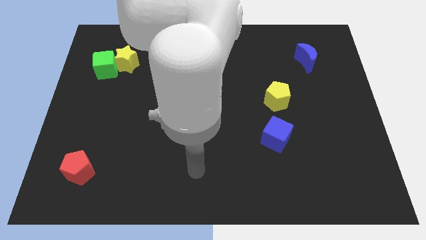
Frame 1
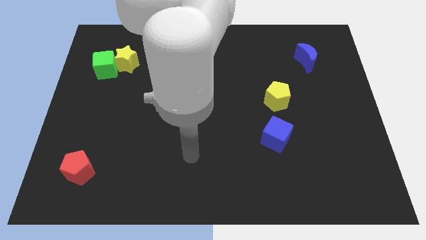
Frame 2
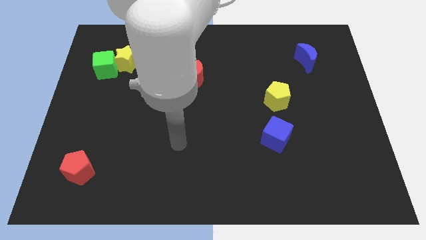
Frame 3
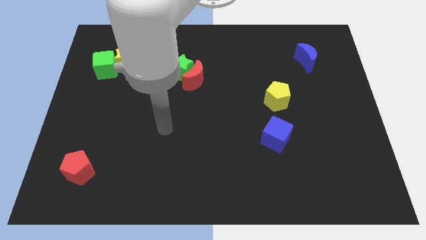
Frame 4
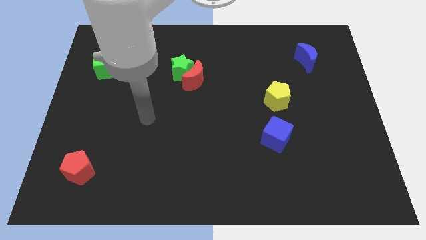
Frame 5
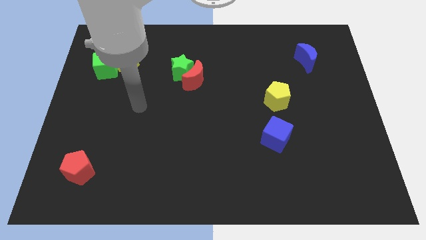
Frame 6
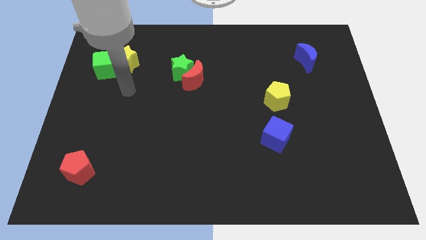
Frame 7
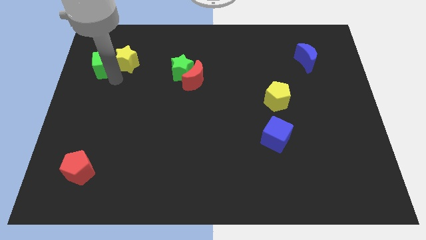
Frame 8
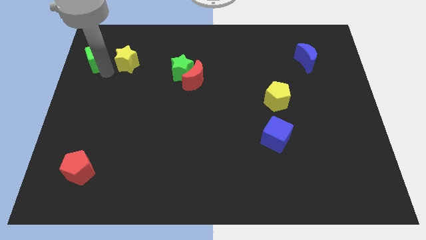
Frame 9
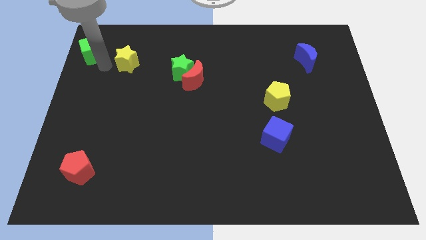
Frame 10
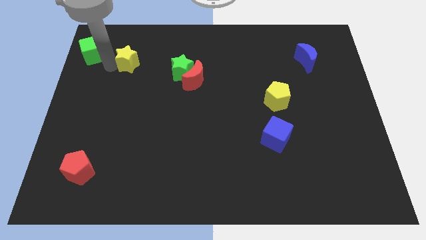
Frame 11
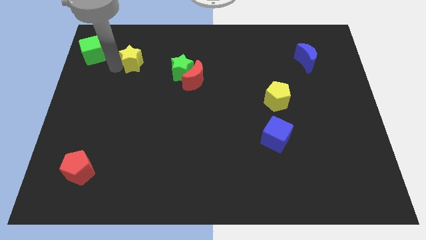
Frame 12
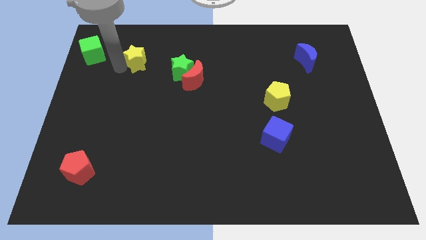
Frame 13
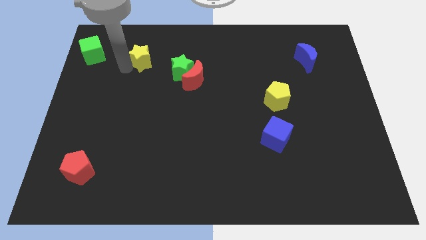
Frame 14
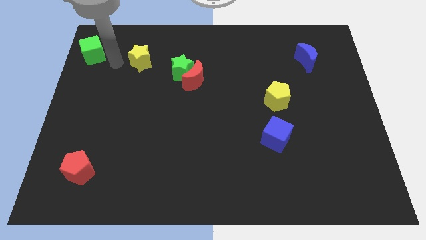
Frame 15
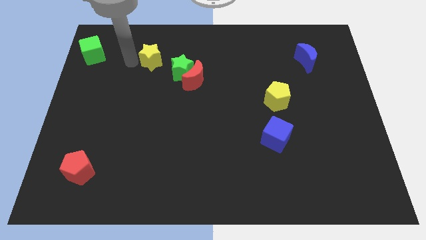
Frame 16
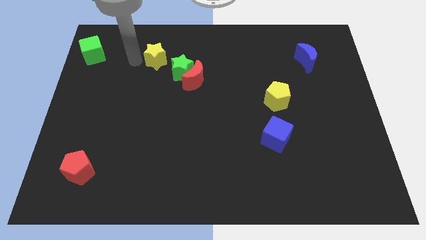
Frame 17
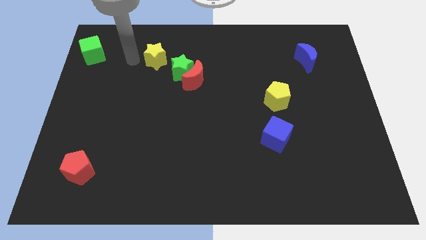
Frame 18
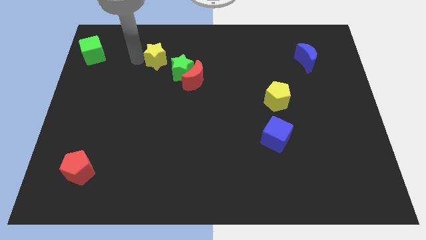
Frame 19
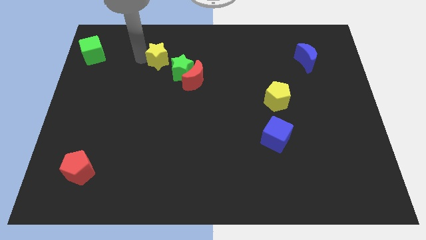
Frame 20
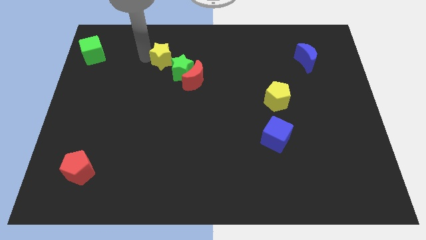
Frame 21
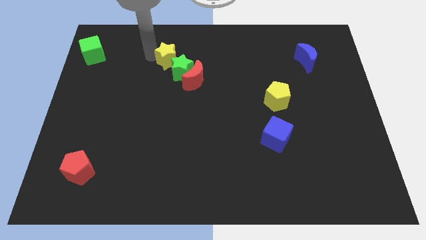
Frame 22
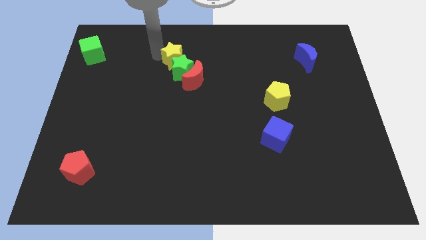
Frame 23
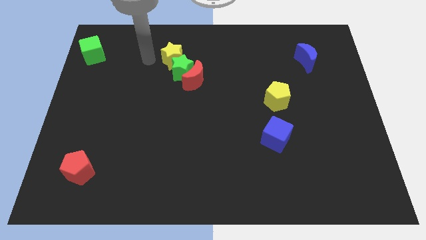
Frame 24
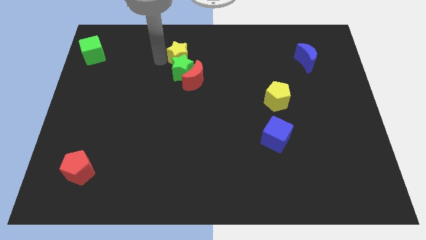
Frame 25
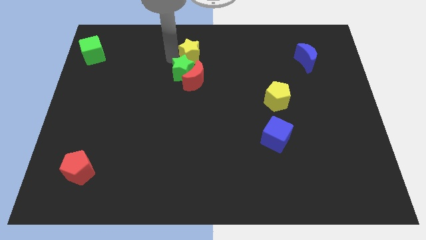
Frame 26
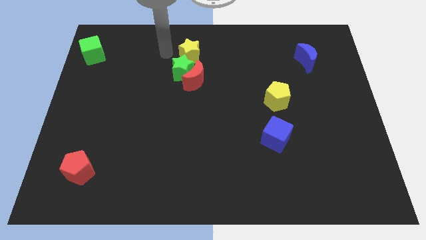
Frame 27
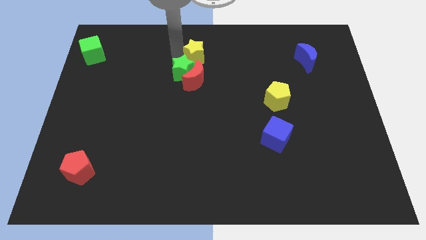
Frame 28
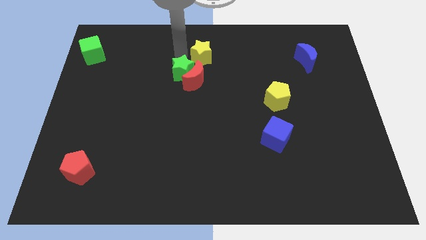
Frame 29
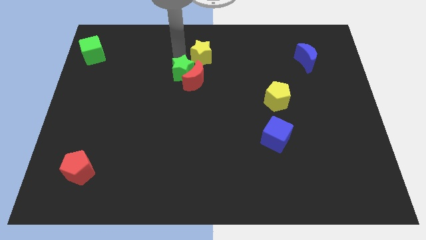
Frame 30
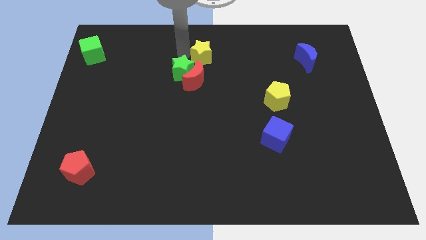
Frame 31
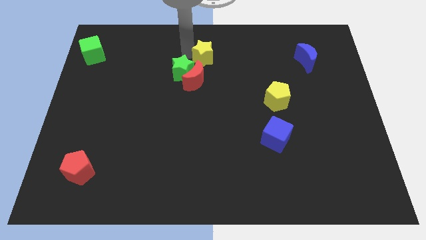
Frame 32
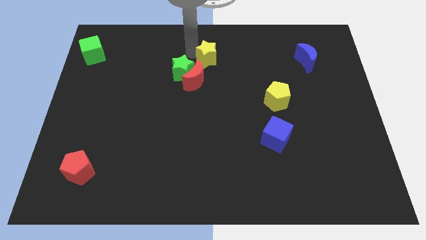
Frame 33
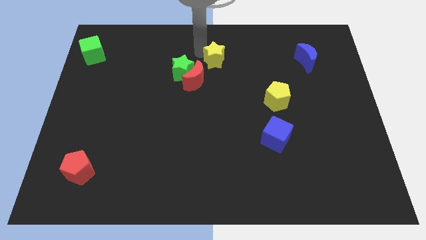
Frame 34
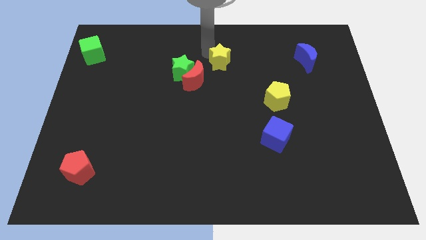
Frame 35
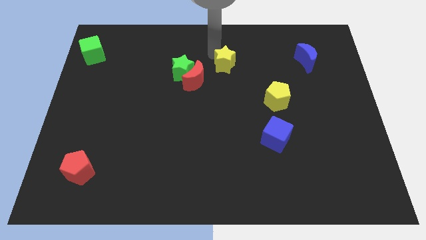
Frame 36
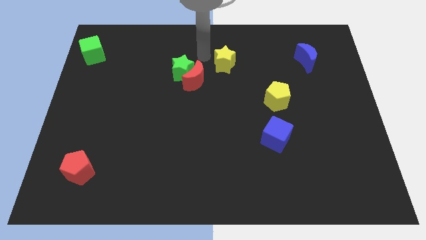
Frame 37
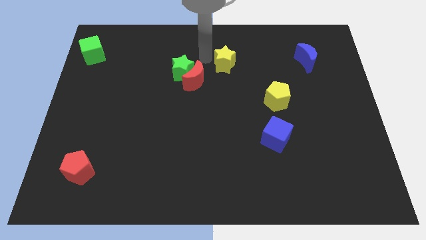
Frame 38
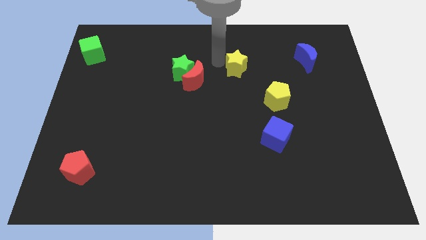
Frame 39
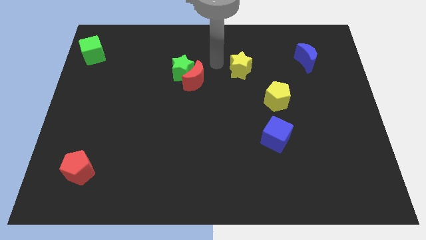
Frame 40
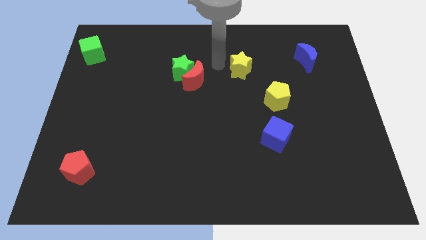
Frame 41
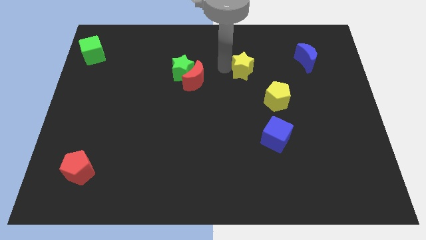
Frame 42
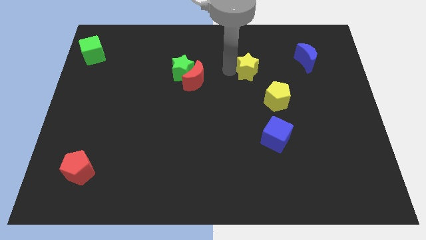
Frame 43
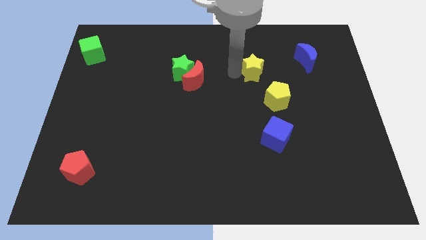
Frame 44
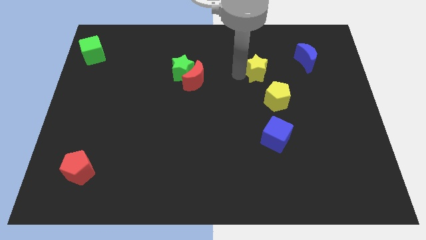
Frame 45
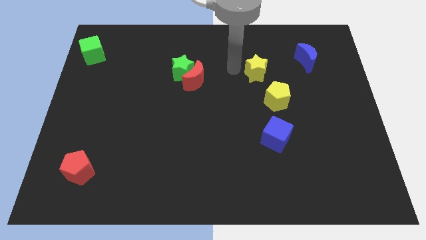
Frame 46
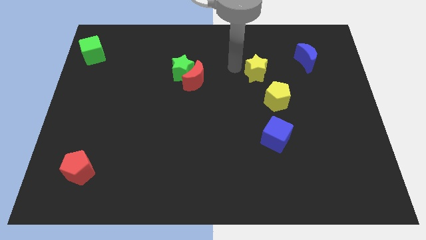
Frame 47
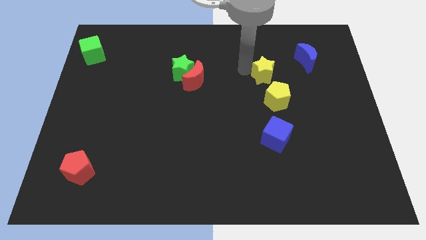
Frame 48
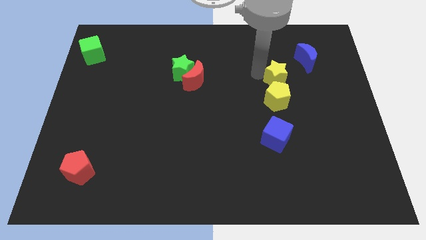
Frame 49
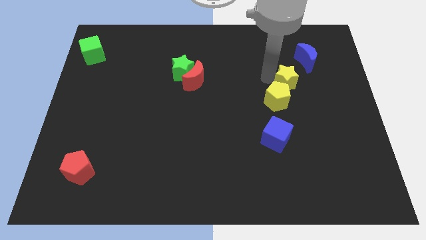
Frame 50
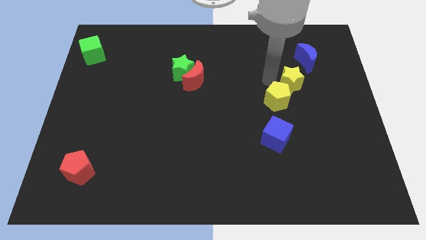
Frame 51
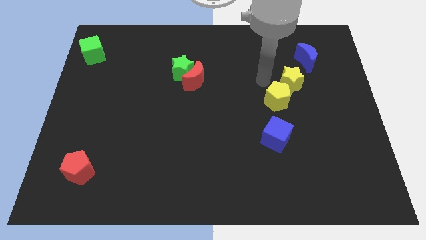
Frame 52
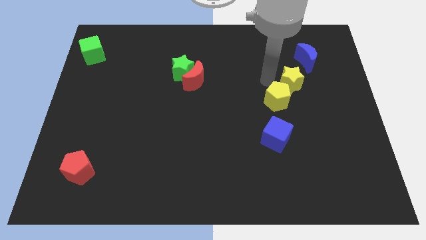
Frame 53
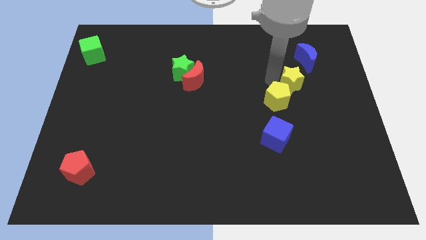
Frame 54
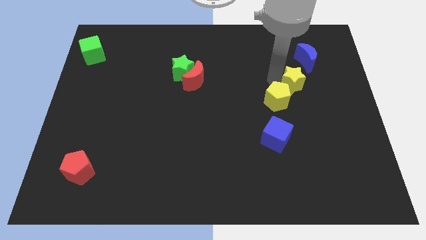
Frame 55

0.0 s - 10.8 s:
move the yellow star to the right of the yellow pentagon
